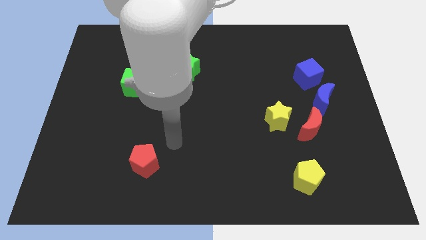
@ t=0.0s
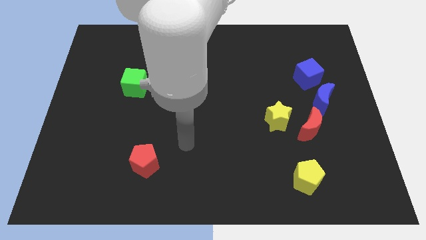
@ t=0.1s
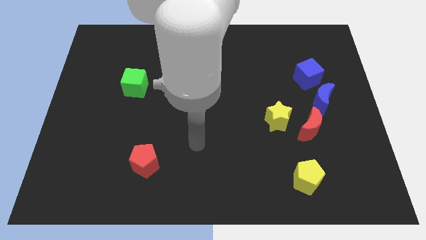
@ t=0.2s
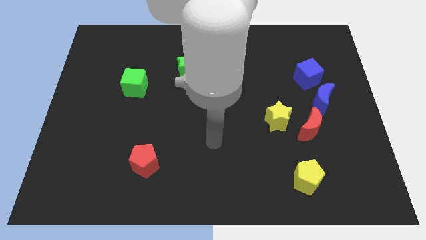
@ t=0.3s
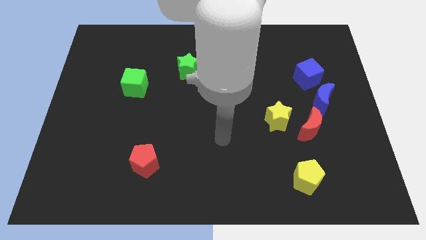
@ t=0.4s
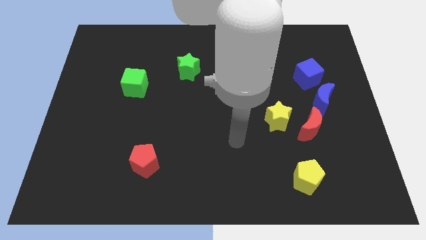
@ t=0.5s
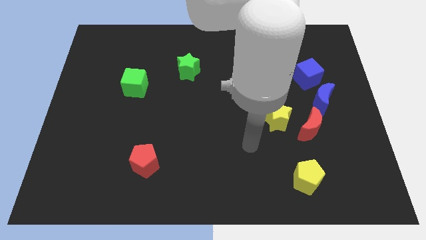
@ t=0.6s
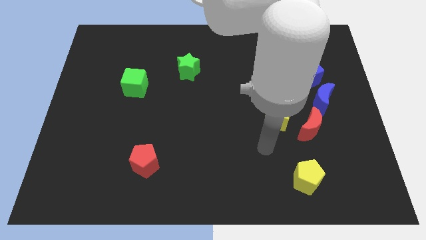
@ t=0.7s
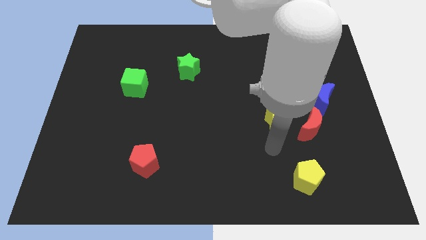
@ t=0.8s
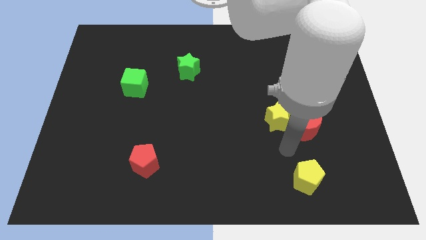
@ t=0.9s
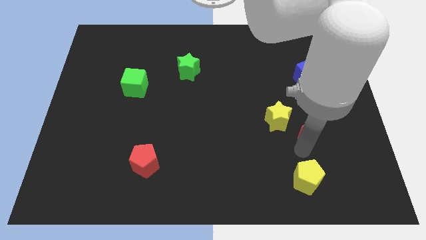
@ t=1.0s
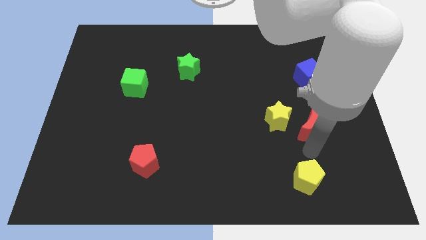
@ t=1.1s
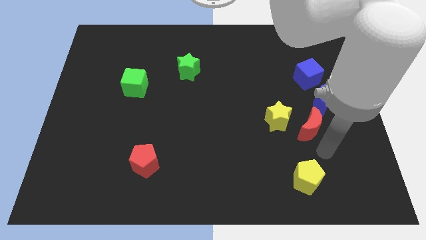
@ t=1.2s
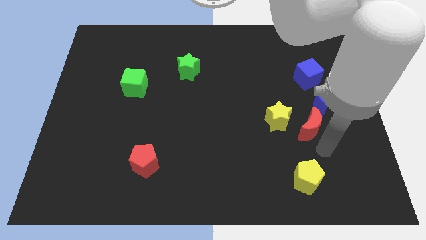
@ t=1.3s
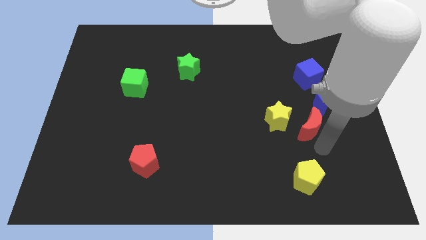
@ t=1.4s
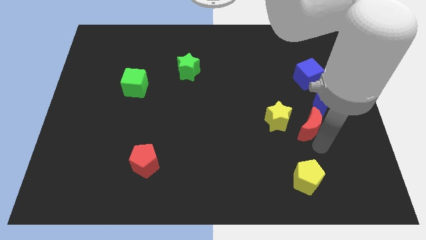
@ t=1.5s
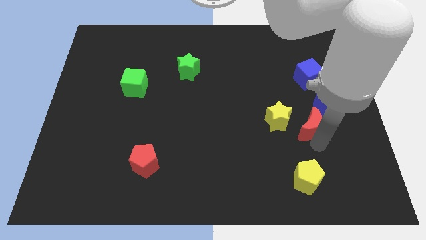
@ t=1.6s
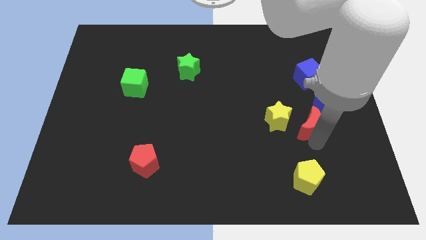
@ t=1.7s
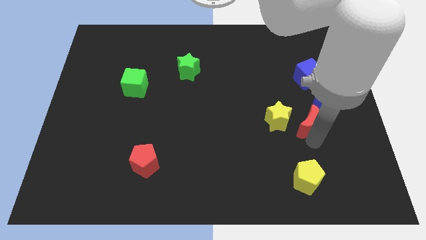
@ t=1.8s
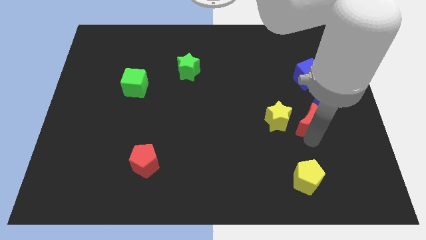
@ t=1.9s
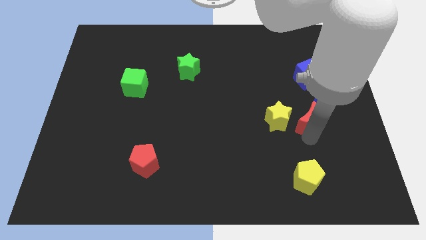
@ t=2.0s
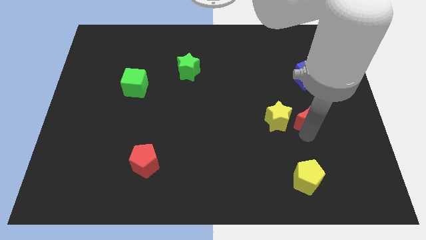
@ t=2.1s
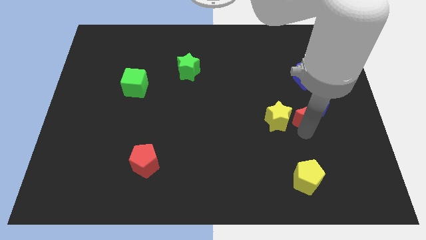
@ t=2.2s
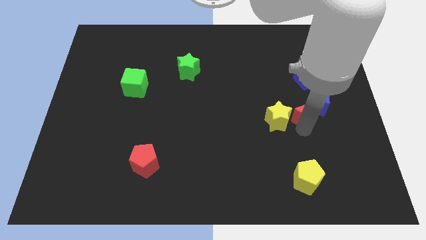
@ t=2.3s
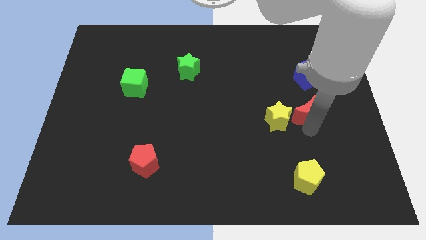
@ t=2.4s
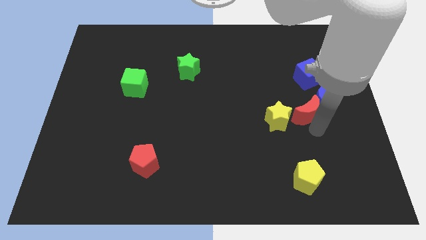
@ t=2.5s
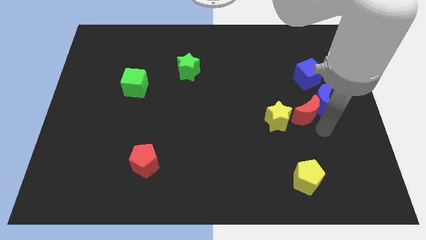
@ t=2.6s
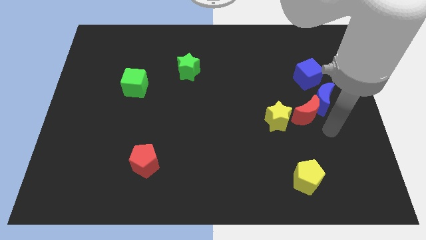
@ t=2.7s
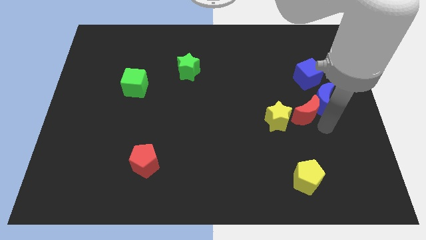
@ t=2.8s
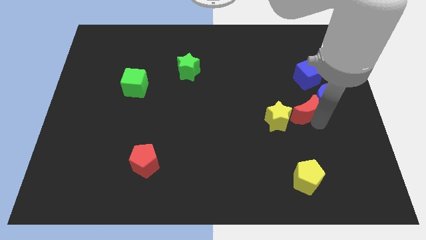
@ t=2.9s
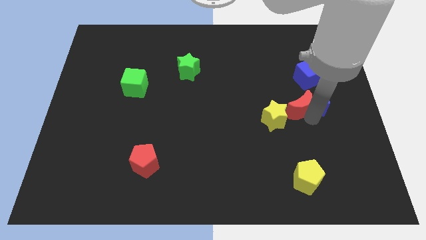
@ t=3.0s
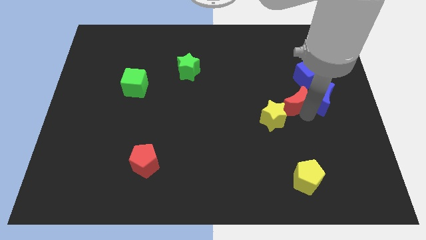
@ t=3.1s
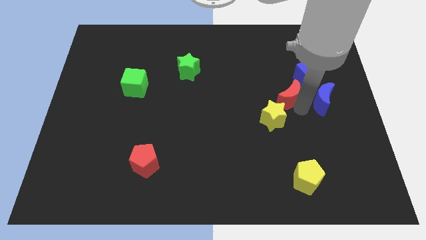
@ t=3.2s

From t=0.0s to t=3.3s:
move the red moon a little up and then left

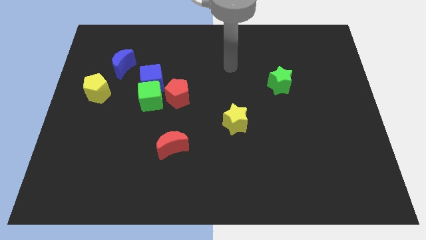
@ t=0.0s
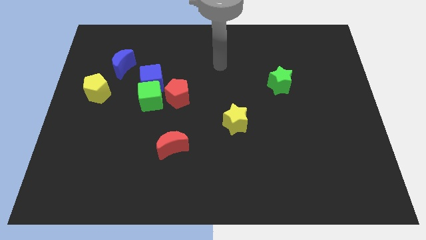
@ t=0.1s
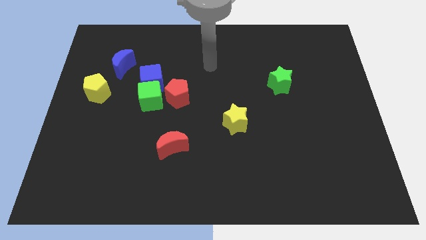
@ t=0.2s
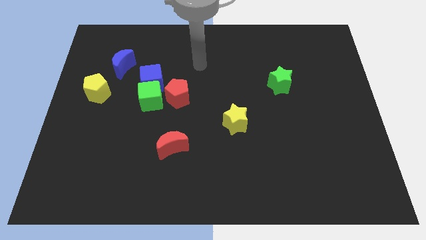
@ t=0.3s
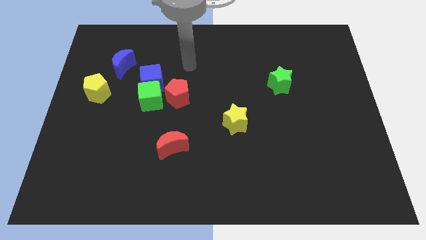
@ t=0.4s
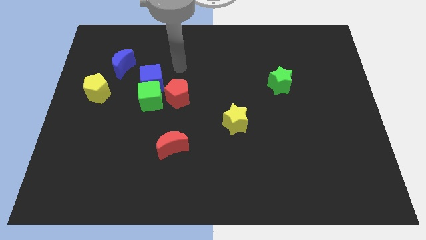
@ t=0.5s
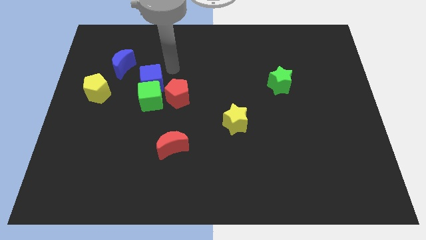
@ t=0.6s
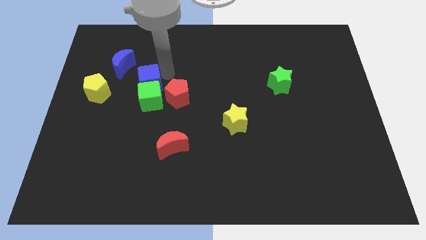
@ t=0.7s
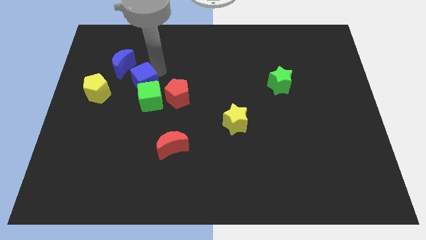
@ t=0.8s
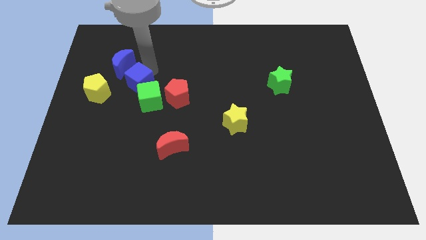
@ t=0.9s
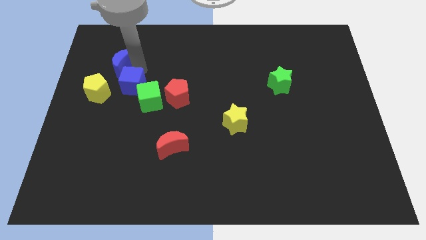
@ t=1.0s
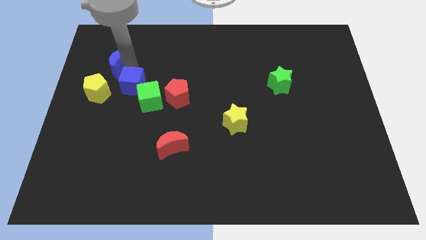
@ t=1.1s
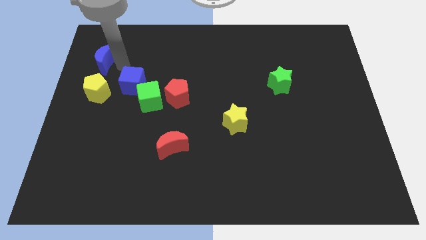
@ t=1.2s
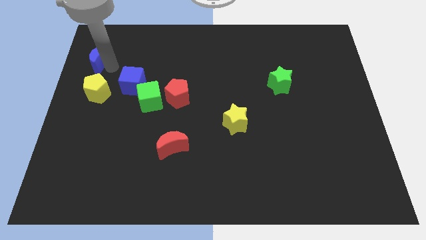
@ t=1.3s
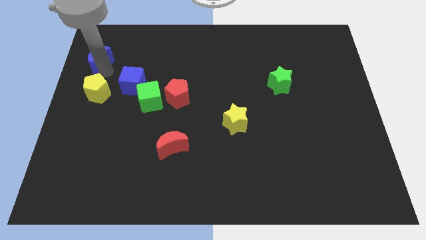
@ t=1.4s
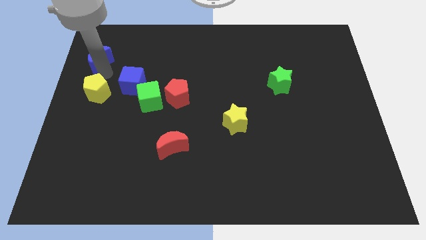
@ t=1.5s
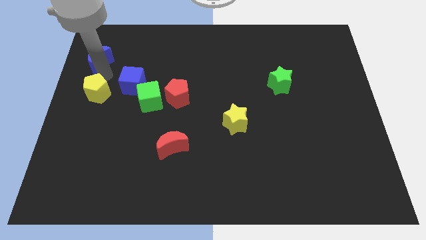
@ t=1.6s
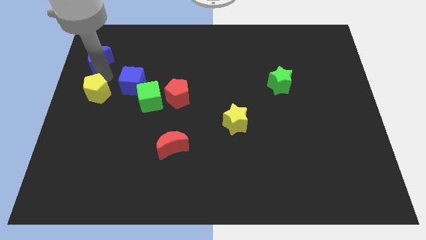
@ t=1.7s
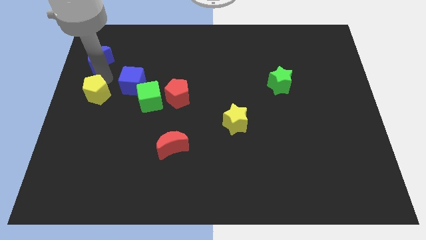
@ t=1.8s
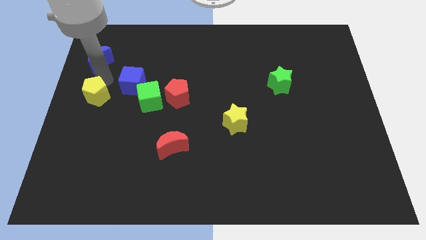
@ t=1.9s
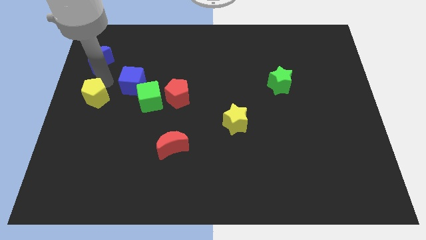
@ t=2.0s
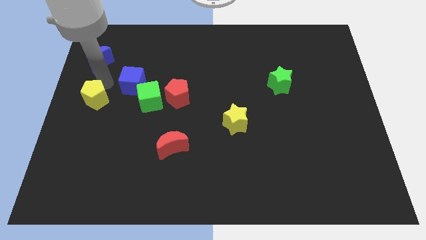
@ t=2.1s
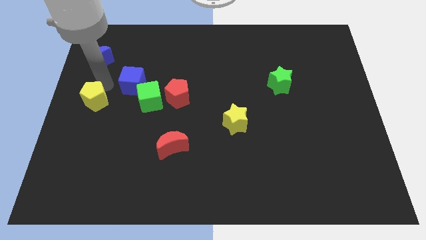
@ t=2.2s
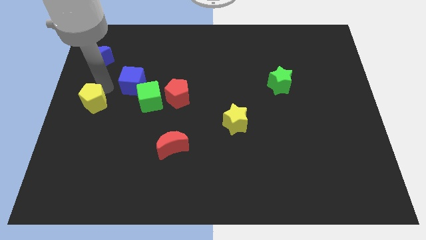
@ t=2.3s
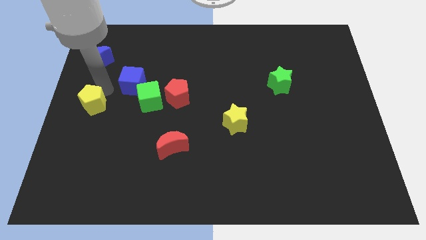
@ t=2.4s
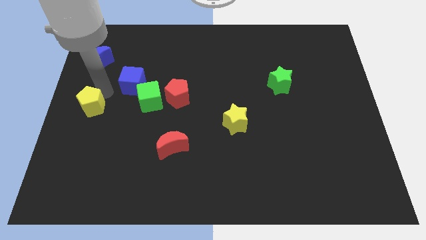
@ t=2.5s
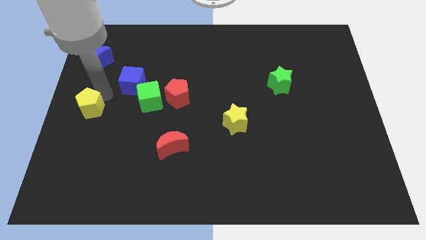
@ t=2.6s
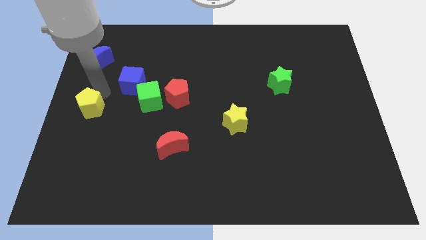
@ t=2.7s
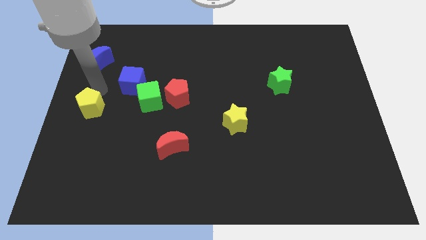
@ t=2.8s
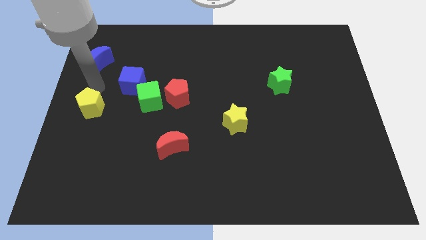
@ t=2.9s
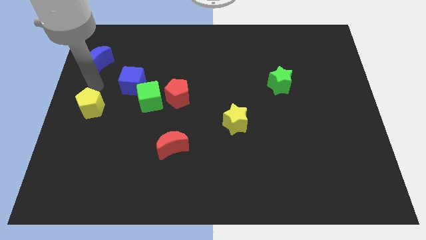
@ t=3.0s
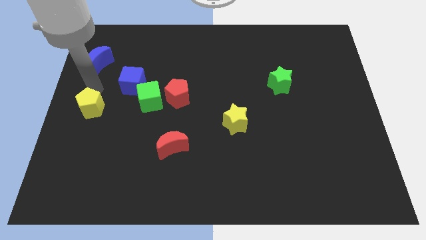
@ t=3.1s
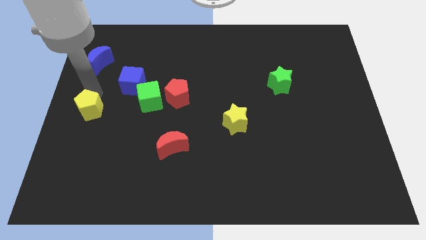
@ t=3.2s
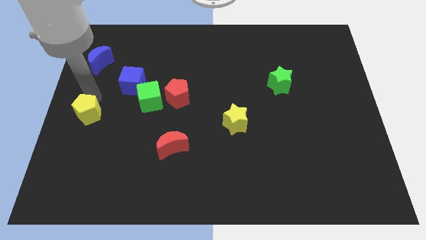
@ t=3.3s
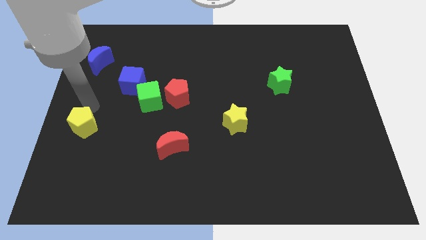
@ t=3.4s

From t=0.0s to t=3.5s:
slide the yellow pentagon somewhat down

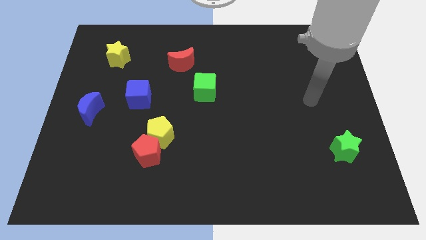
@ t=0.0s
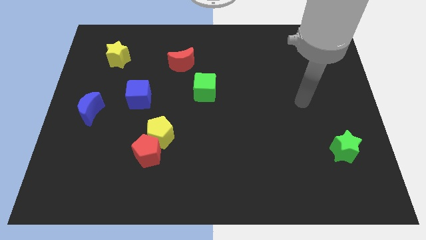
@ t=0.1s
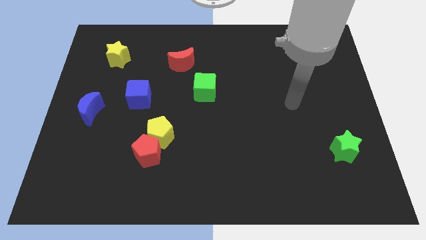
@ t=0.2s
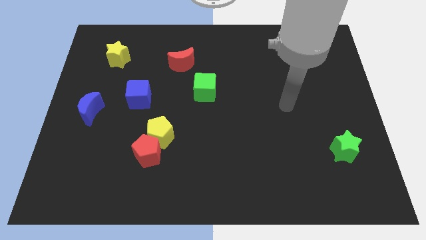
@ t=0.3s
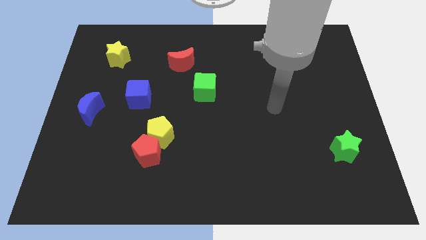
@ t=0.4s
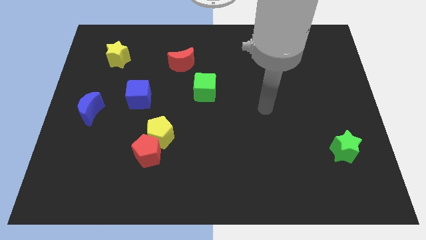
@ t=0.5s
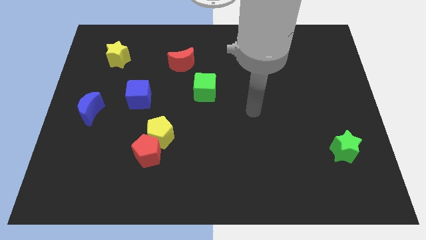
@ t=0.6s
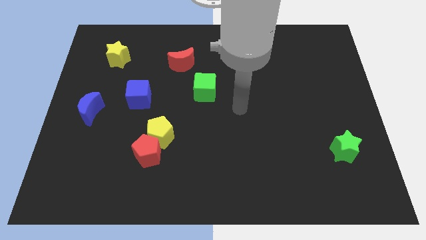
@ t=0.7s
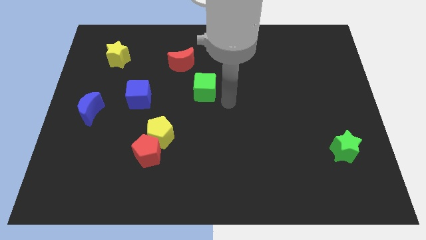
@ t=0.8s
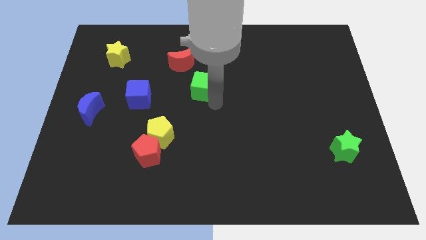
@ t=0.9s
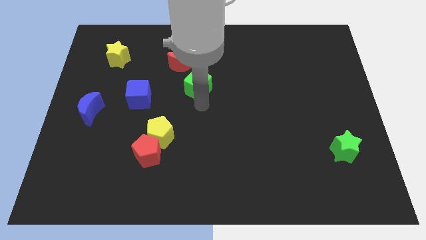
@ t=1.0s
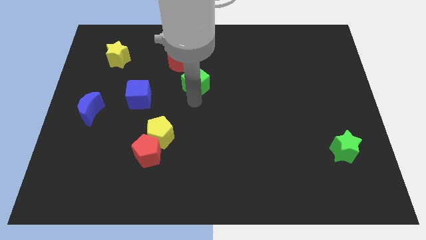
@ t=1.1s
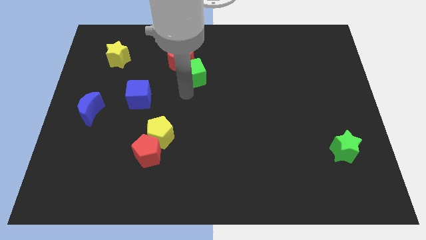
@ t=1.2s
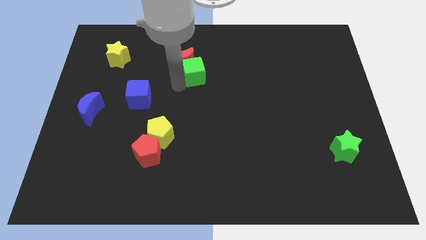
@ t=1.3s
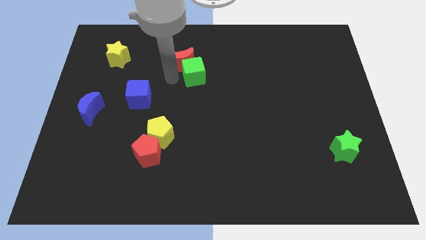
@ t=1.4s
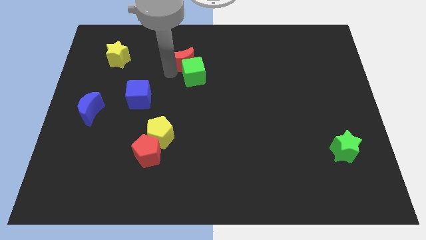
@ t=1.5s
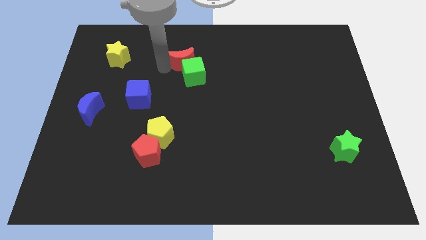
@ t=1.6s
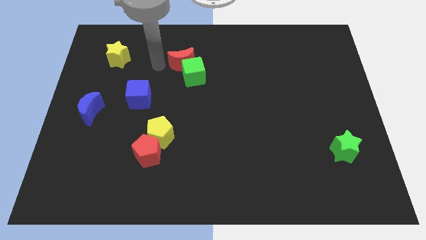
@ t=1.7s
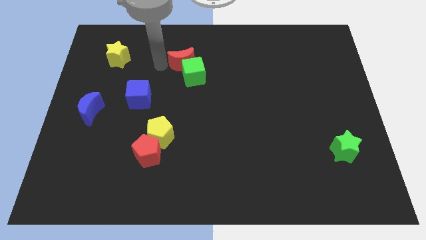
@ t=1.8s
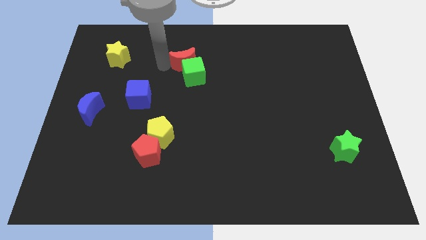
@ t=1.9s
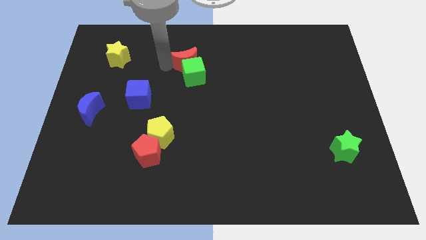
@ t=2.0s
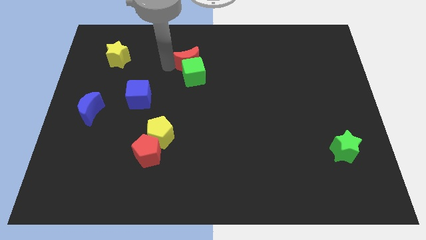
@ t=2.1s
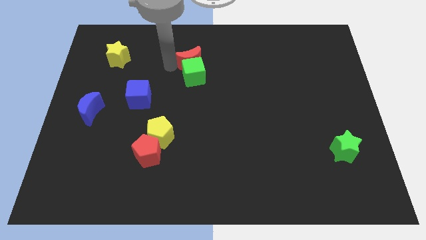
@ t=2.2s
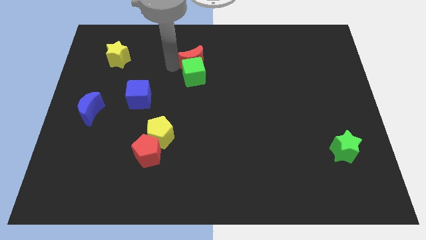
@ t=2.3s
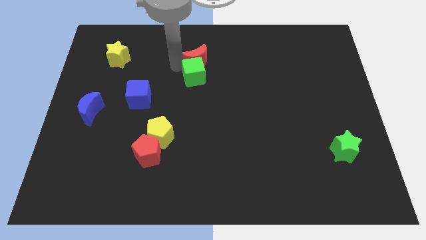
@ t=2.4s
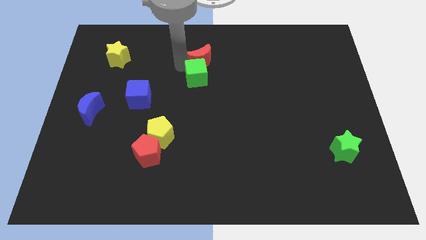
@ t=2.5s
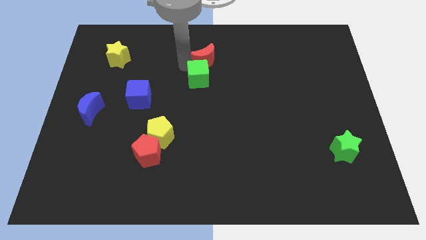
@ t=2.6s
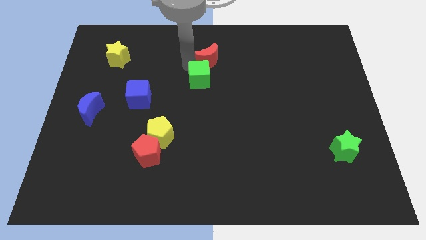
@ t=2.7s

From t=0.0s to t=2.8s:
slightly push the red moon to the right
